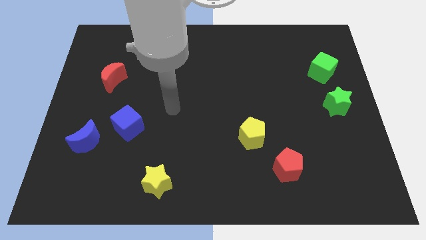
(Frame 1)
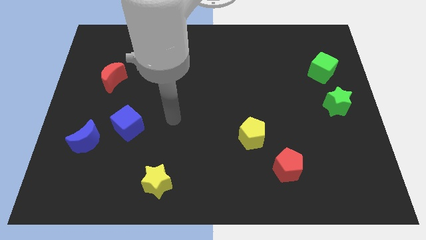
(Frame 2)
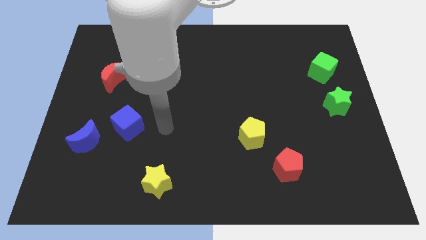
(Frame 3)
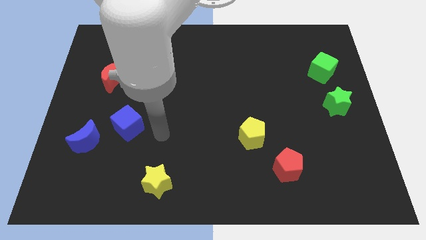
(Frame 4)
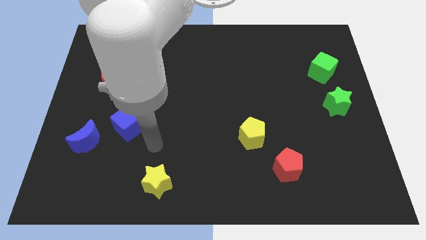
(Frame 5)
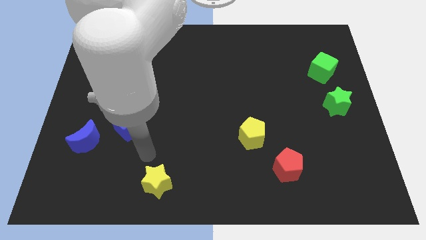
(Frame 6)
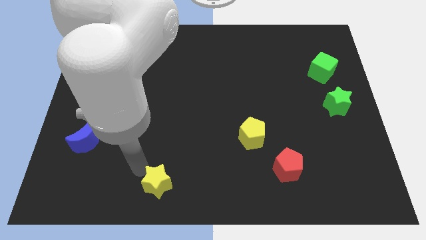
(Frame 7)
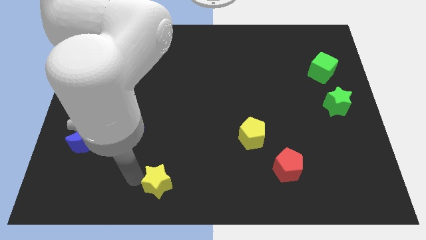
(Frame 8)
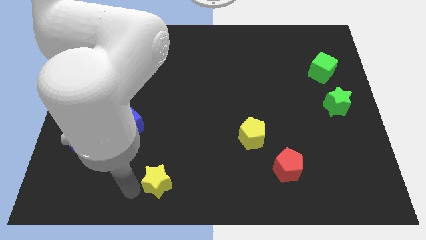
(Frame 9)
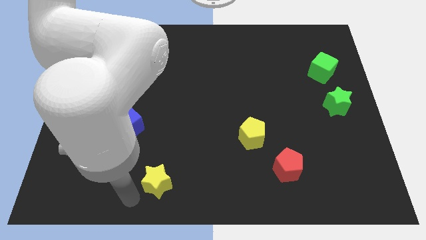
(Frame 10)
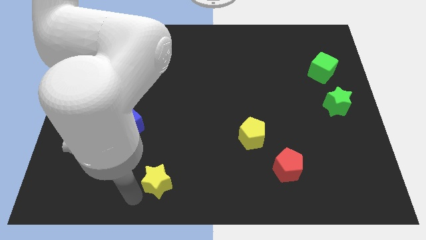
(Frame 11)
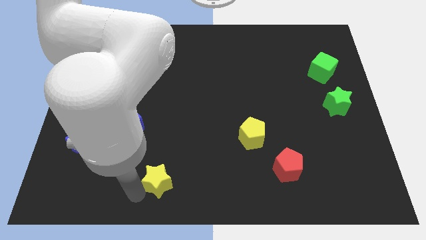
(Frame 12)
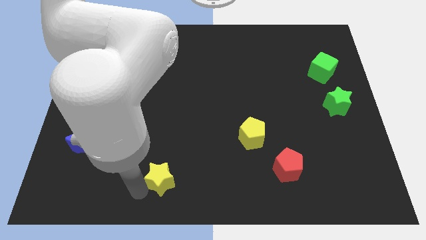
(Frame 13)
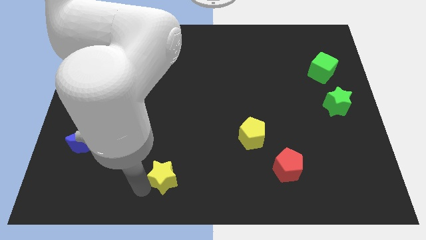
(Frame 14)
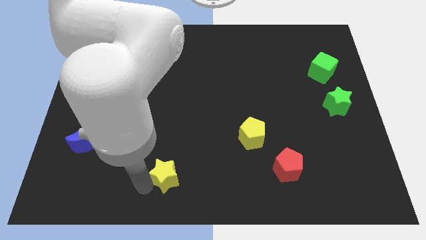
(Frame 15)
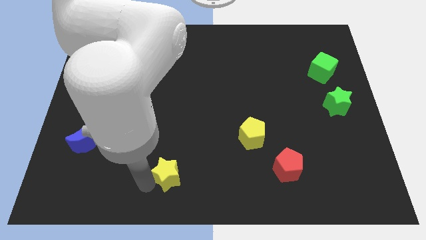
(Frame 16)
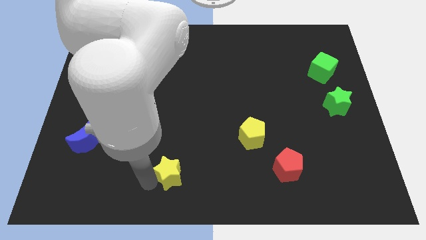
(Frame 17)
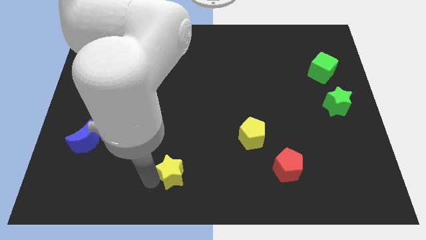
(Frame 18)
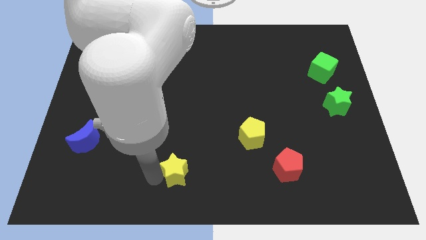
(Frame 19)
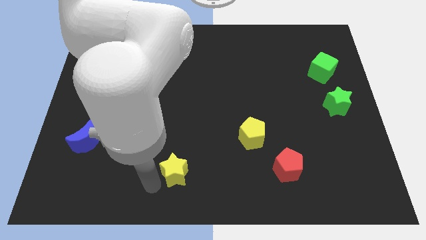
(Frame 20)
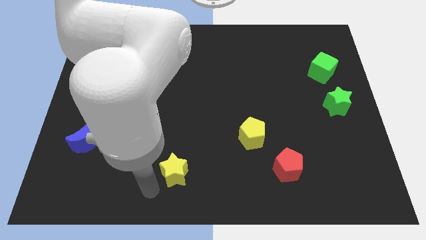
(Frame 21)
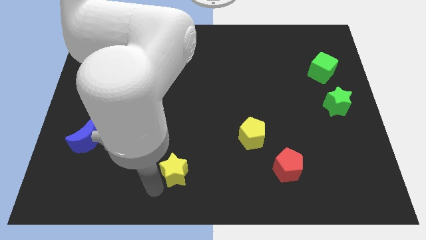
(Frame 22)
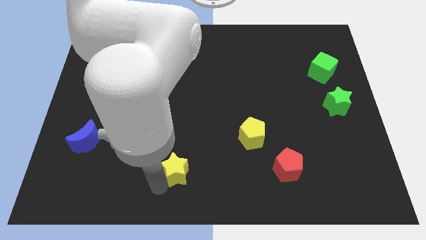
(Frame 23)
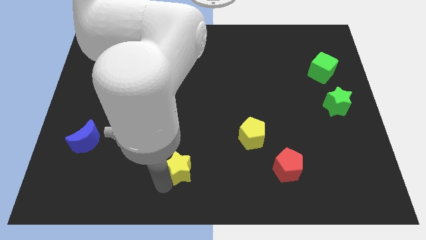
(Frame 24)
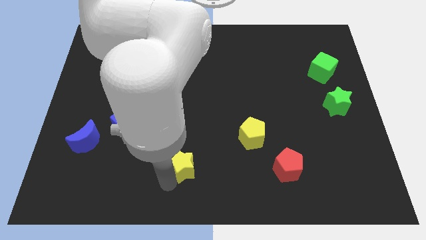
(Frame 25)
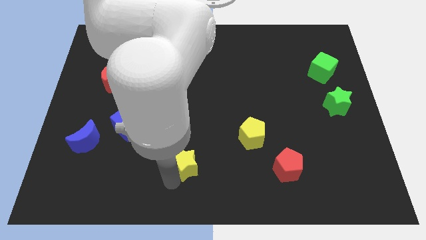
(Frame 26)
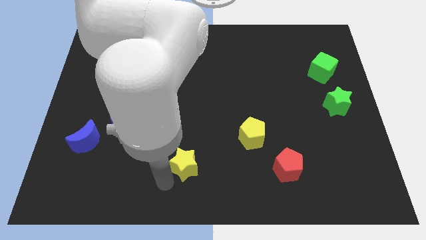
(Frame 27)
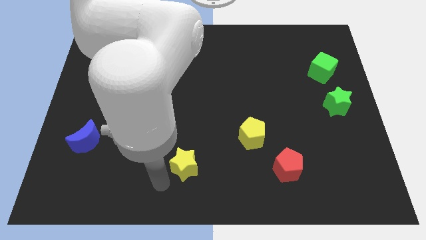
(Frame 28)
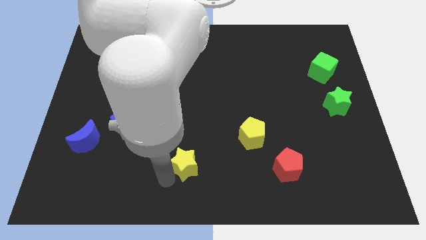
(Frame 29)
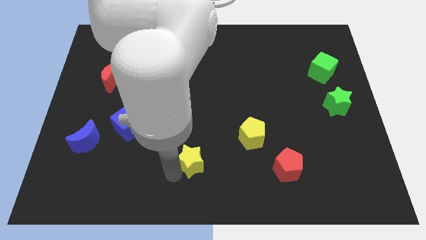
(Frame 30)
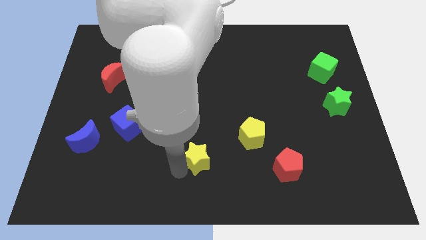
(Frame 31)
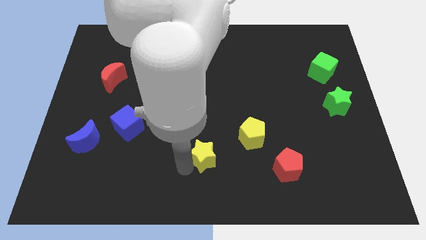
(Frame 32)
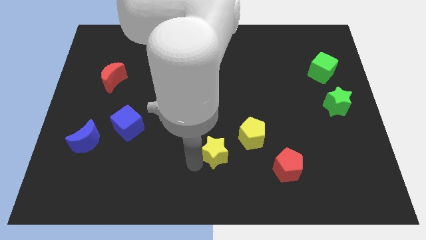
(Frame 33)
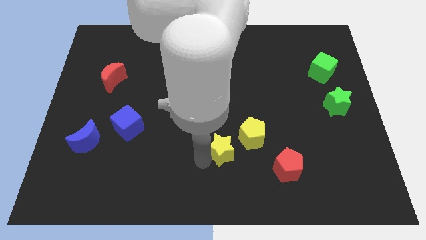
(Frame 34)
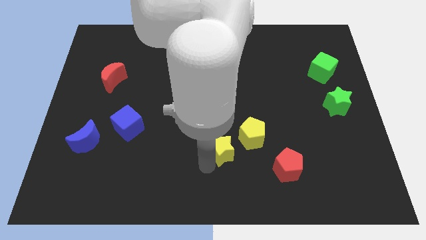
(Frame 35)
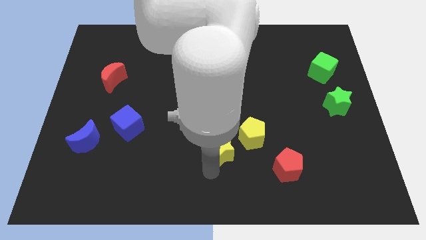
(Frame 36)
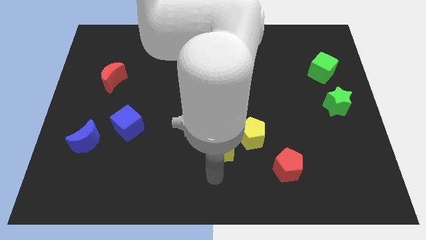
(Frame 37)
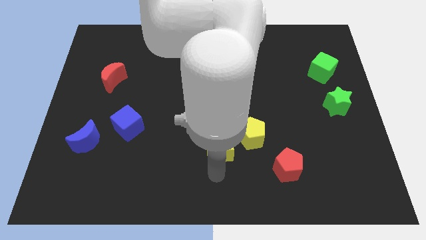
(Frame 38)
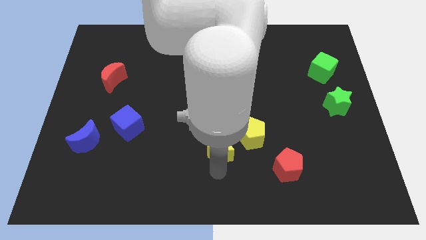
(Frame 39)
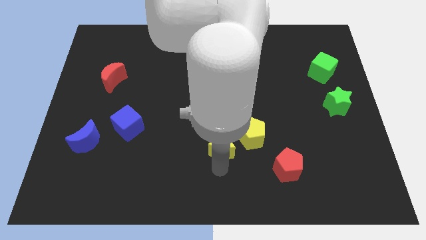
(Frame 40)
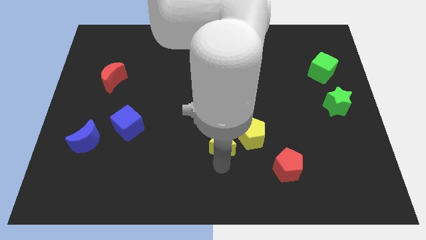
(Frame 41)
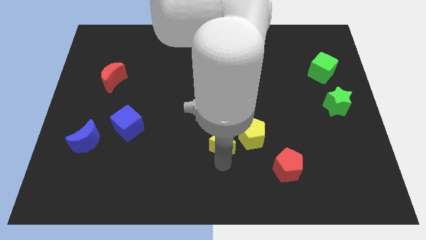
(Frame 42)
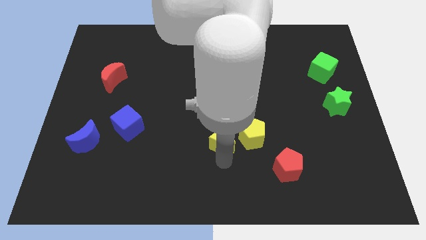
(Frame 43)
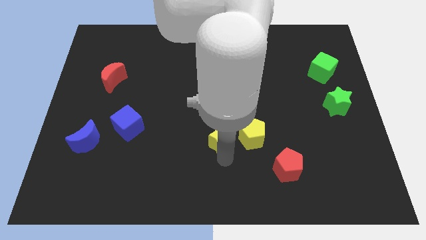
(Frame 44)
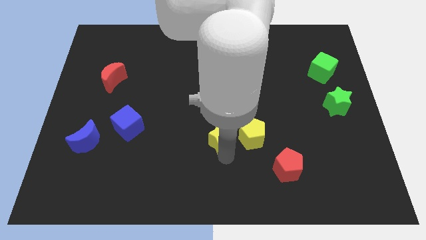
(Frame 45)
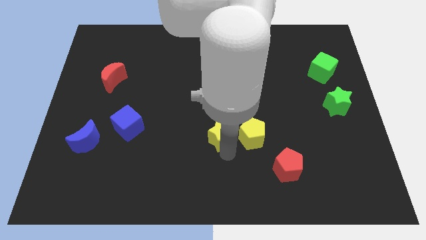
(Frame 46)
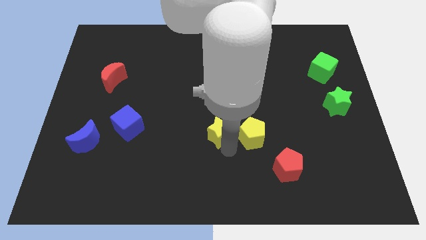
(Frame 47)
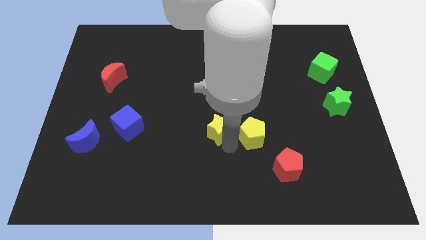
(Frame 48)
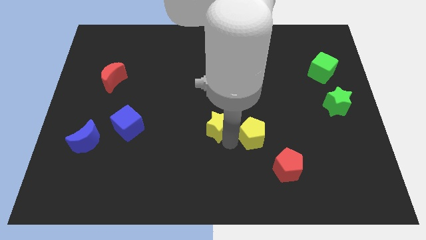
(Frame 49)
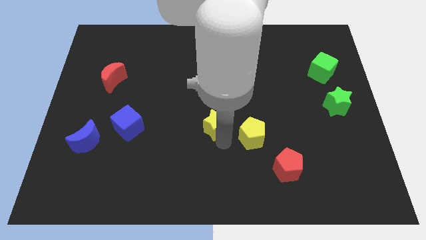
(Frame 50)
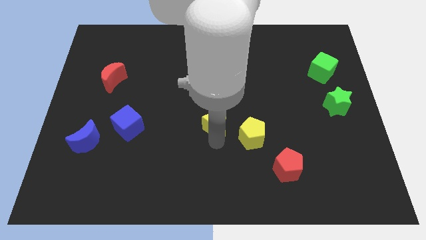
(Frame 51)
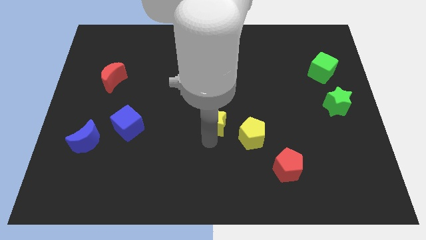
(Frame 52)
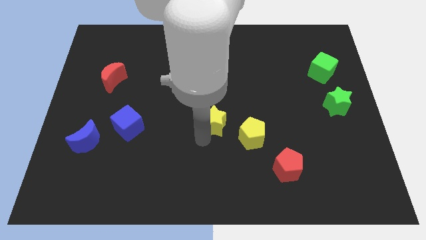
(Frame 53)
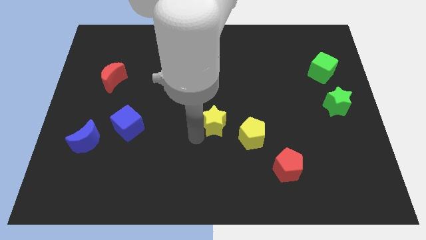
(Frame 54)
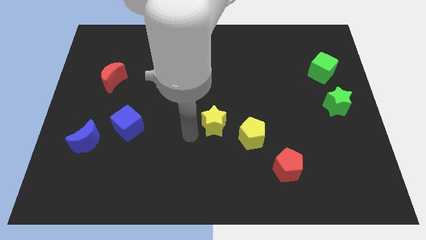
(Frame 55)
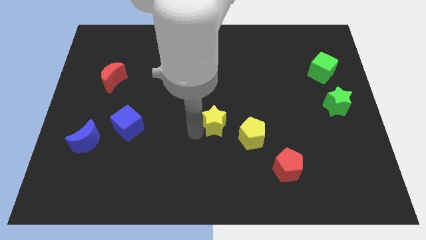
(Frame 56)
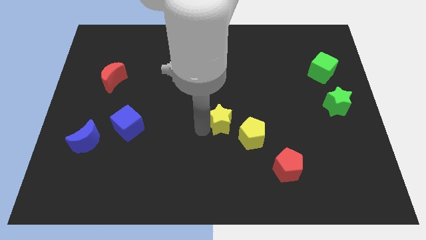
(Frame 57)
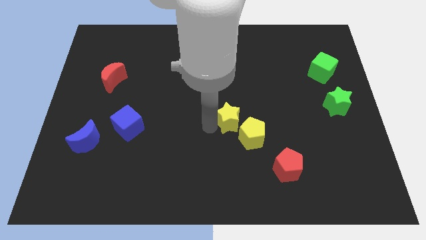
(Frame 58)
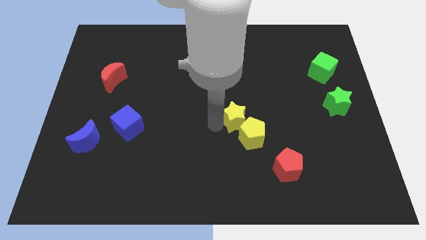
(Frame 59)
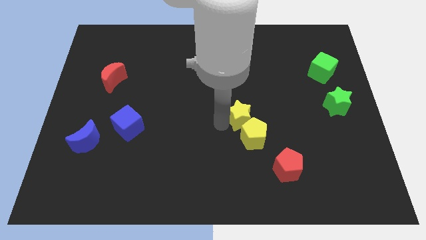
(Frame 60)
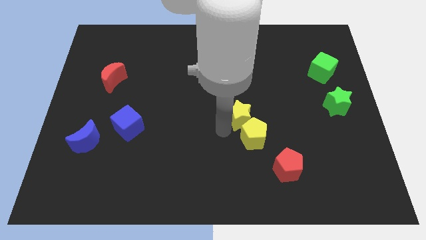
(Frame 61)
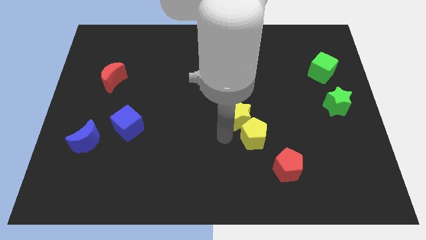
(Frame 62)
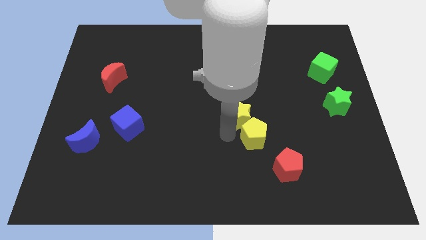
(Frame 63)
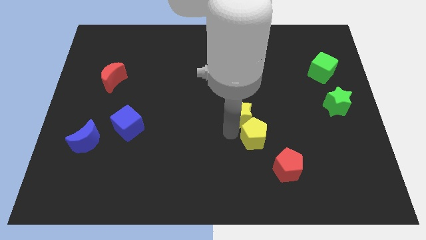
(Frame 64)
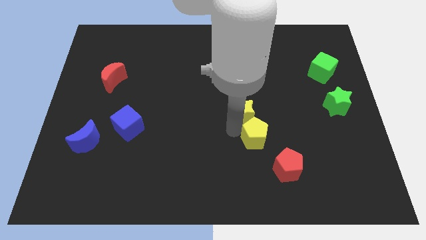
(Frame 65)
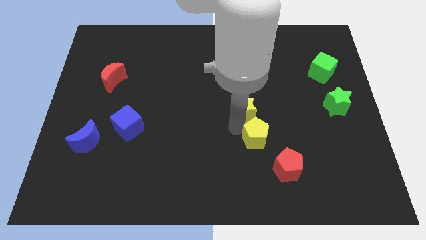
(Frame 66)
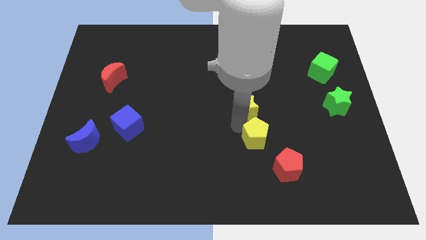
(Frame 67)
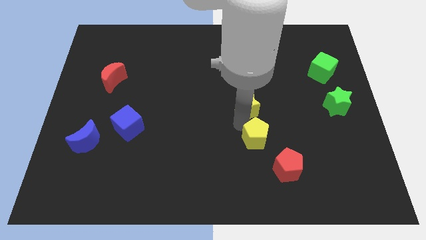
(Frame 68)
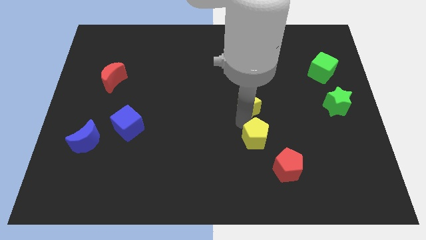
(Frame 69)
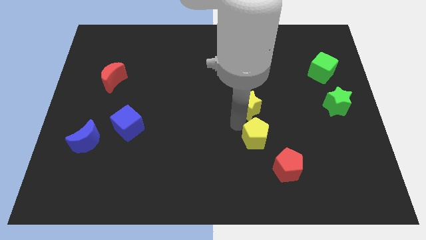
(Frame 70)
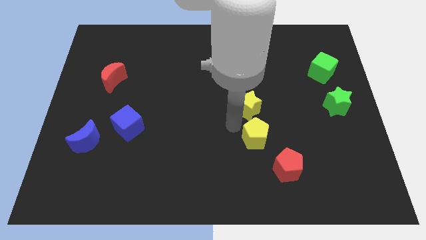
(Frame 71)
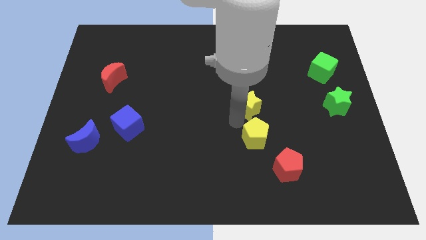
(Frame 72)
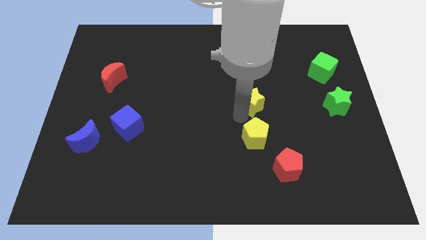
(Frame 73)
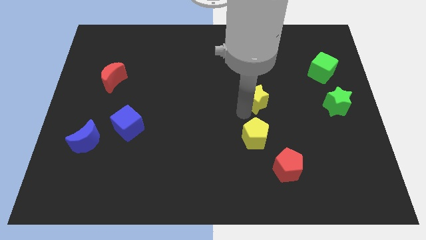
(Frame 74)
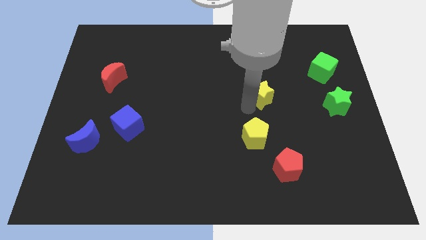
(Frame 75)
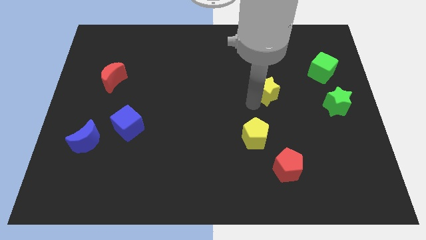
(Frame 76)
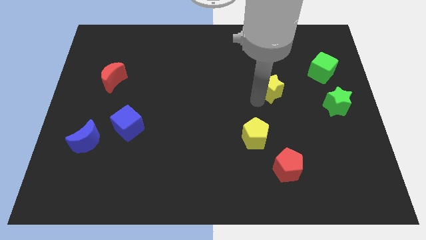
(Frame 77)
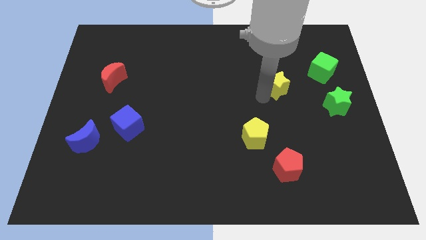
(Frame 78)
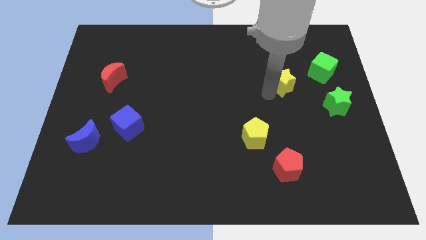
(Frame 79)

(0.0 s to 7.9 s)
slide the yellow star to the left side of the green cube

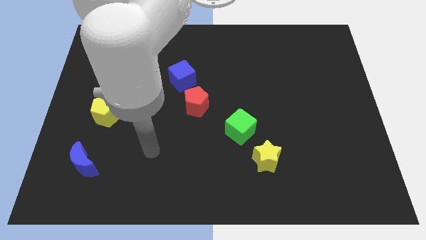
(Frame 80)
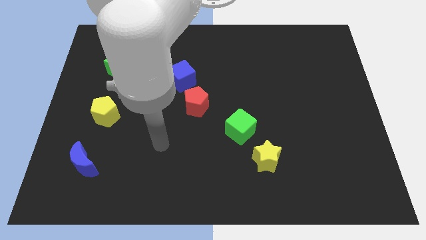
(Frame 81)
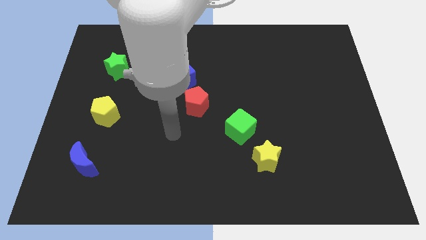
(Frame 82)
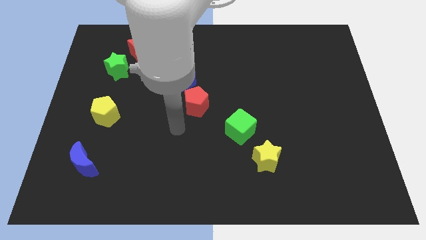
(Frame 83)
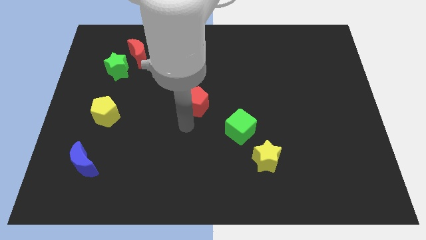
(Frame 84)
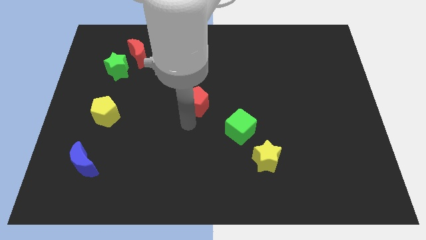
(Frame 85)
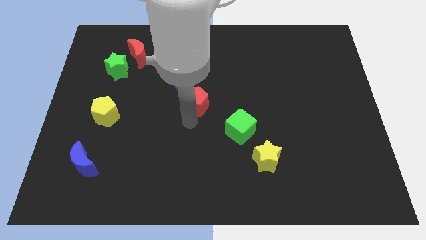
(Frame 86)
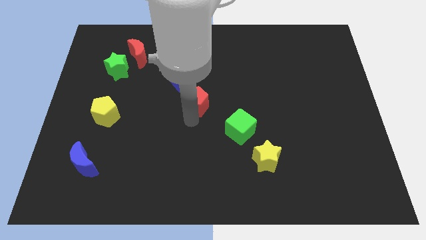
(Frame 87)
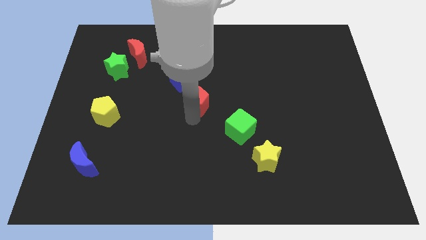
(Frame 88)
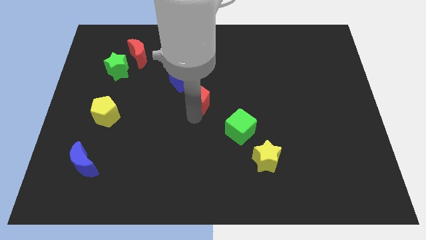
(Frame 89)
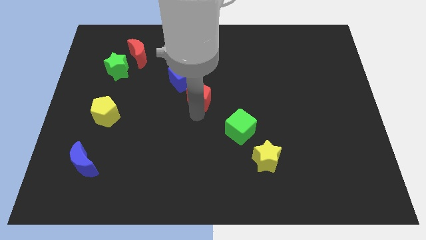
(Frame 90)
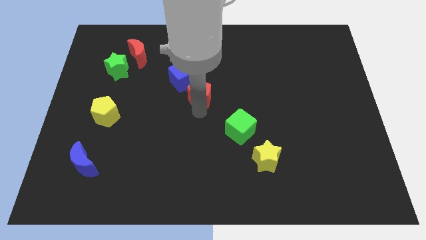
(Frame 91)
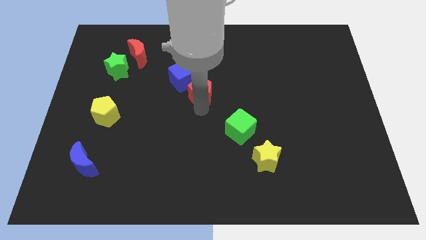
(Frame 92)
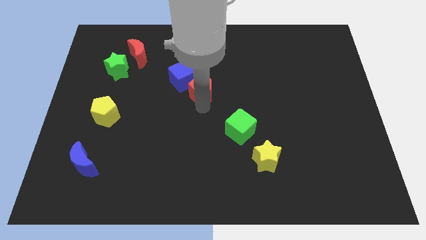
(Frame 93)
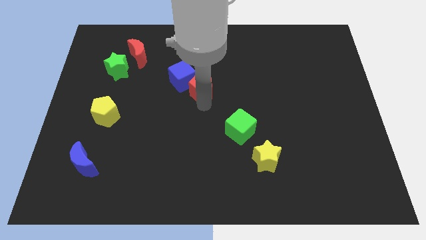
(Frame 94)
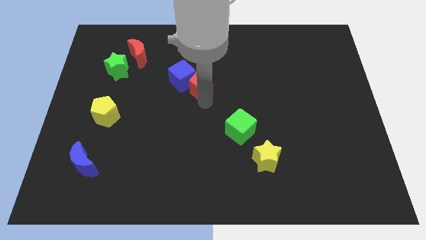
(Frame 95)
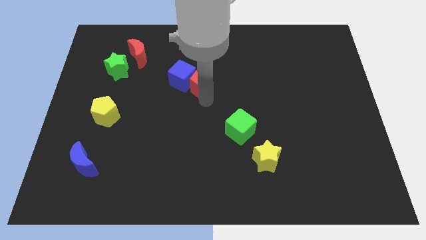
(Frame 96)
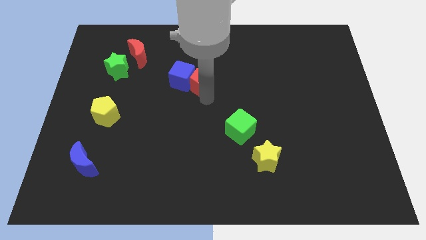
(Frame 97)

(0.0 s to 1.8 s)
push the red pentagon to the top right side of the blue cube
